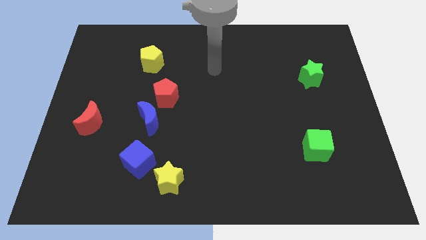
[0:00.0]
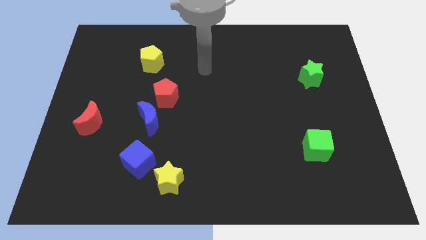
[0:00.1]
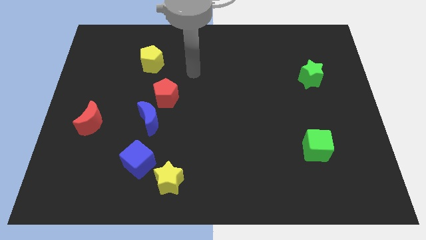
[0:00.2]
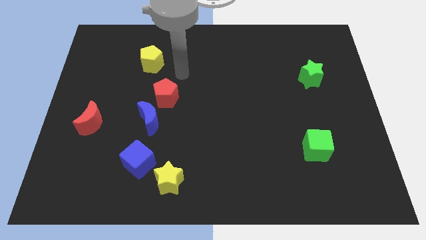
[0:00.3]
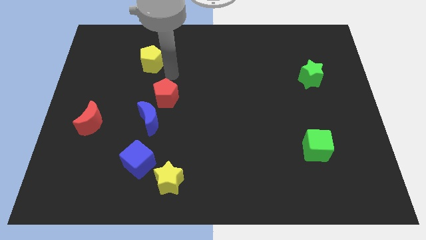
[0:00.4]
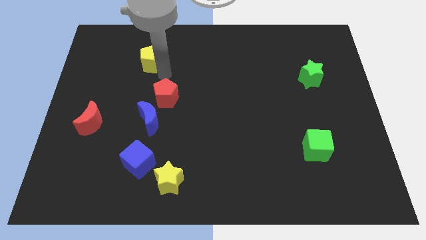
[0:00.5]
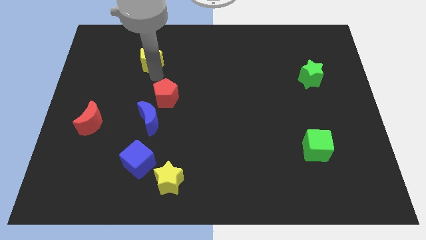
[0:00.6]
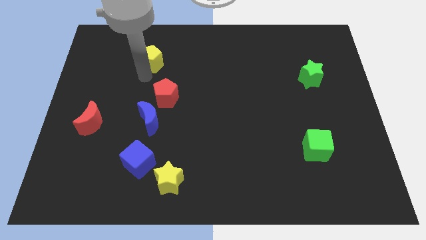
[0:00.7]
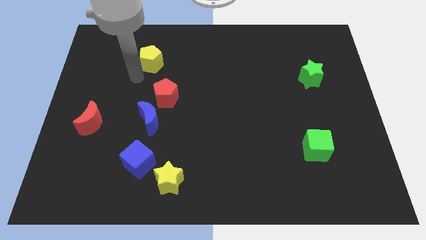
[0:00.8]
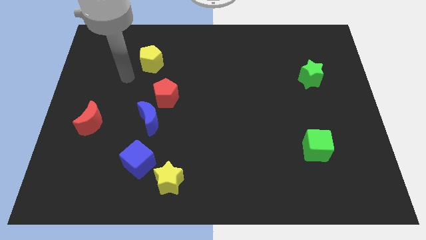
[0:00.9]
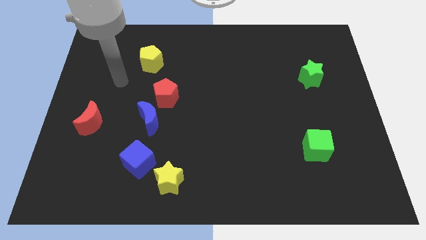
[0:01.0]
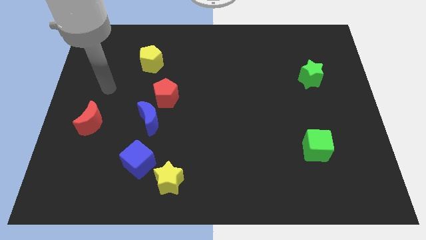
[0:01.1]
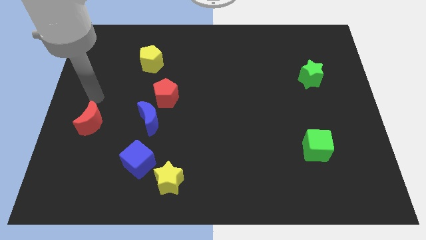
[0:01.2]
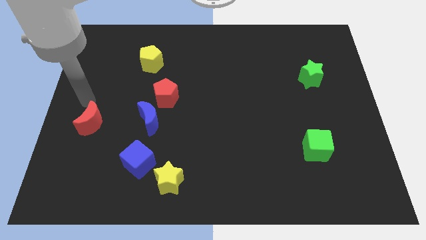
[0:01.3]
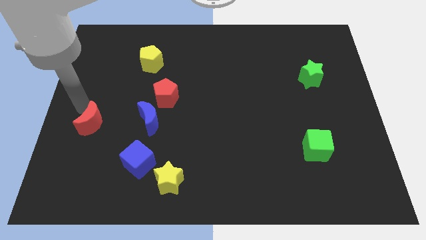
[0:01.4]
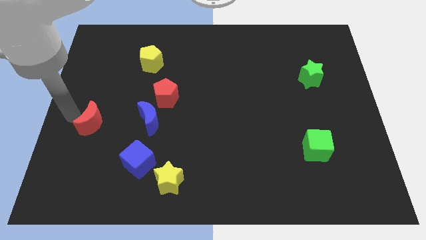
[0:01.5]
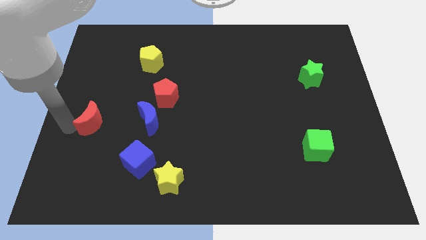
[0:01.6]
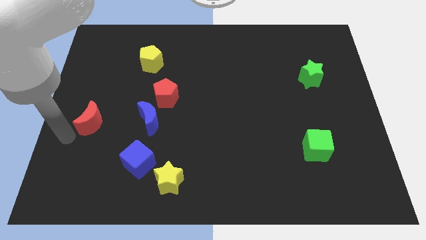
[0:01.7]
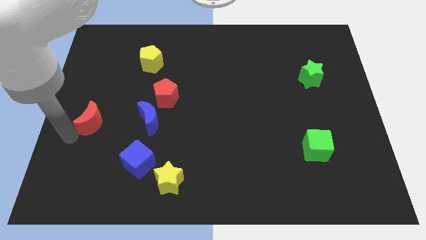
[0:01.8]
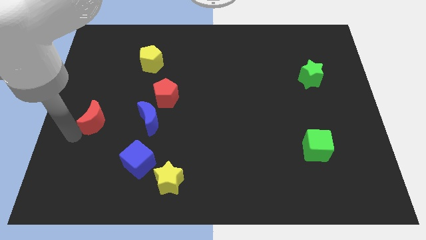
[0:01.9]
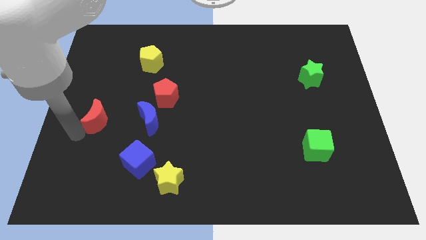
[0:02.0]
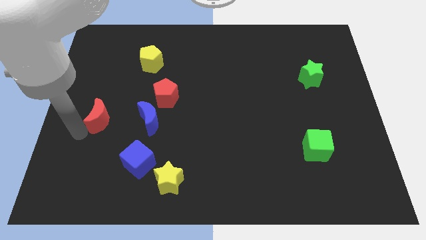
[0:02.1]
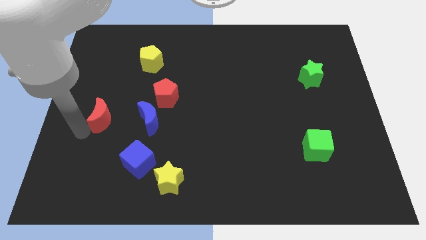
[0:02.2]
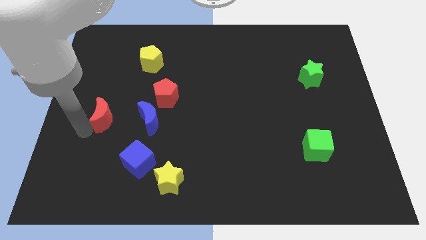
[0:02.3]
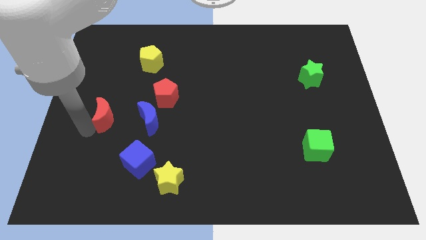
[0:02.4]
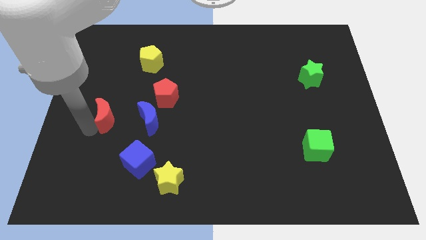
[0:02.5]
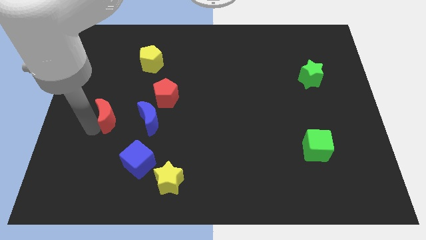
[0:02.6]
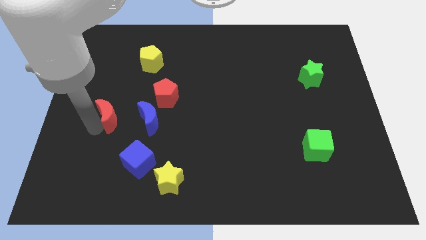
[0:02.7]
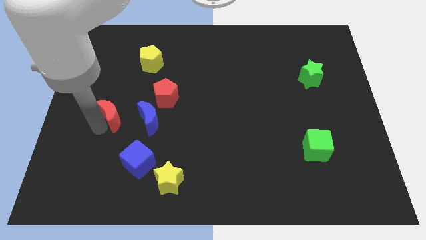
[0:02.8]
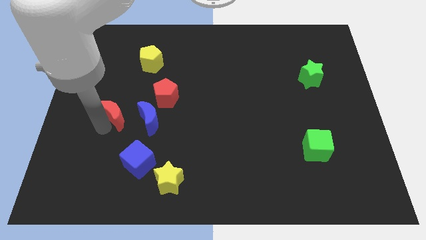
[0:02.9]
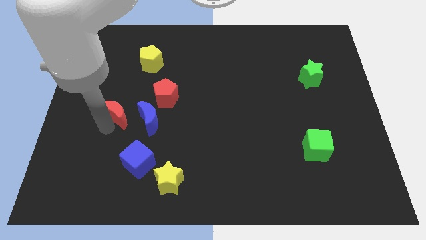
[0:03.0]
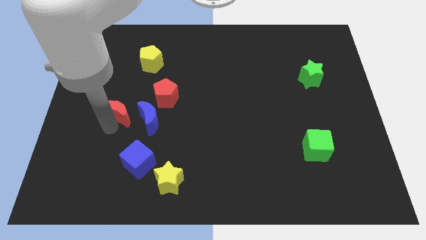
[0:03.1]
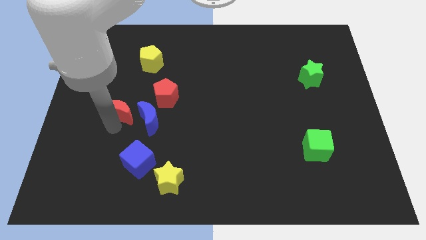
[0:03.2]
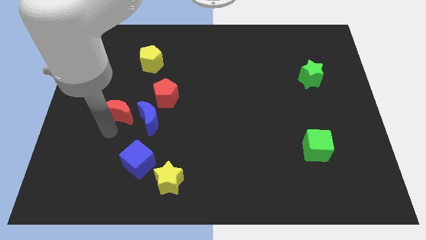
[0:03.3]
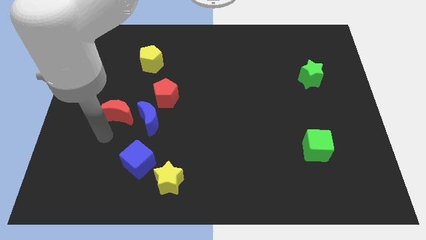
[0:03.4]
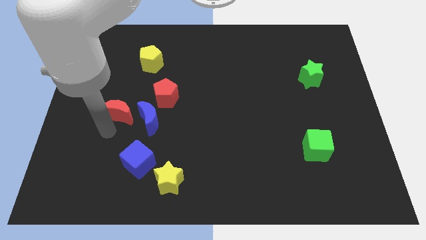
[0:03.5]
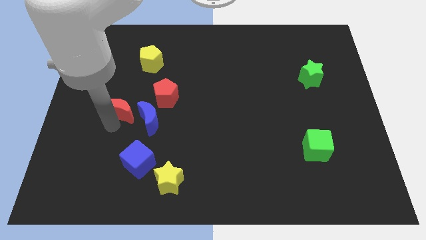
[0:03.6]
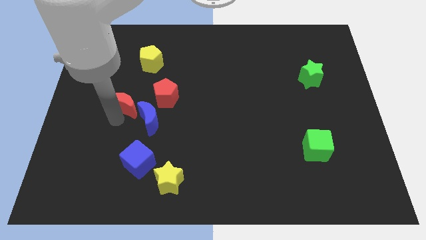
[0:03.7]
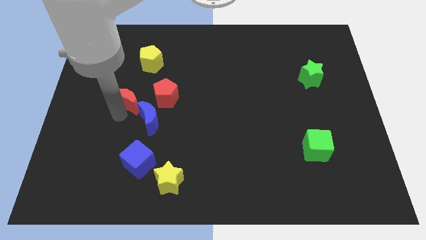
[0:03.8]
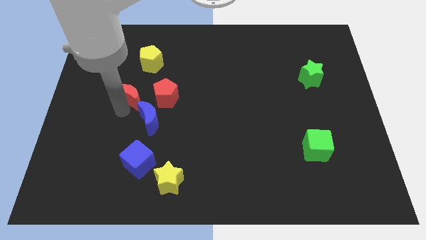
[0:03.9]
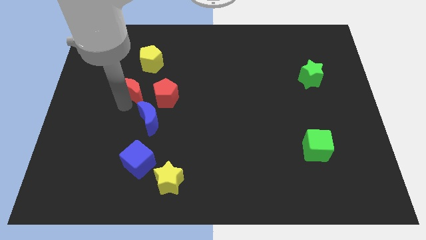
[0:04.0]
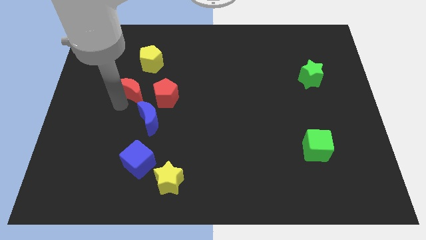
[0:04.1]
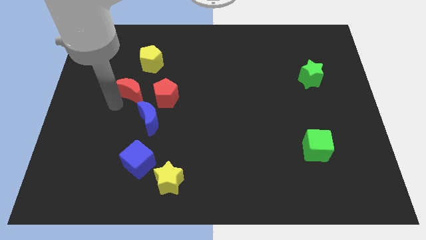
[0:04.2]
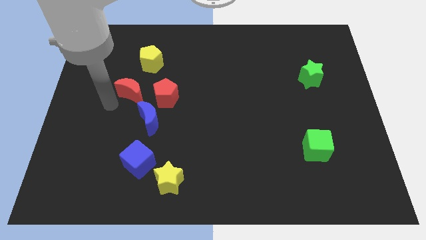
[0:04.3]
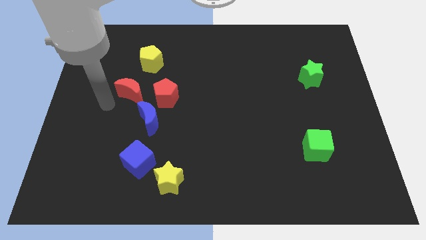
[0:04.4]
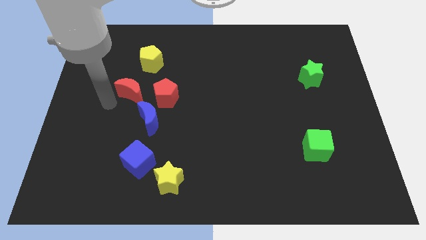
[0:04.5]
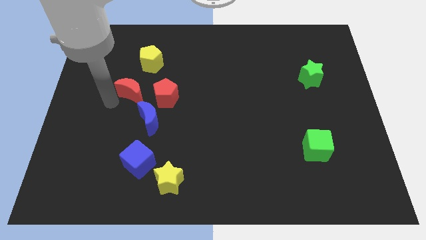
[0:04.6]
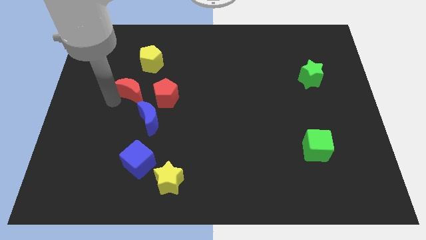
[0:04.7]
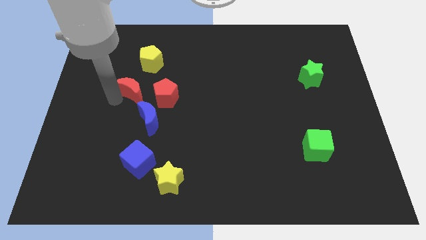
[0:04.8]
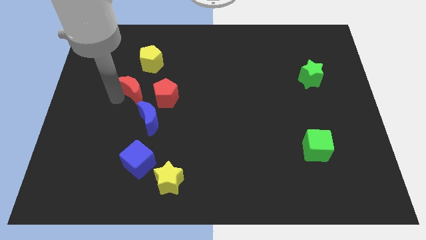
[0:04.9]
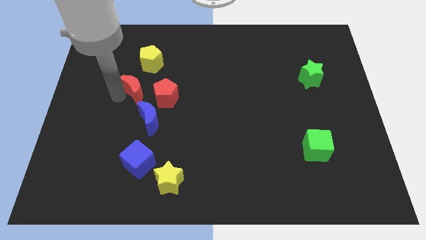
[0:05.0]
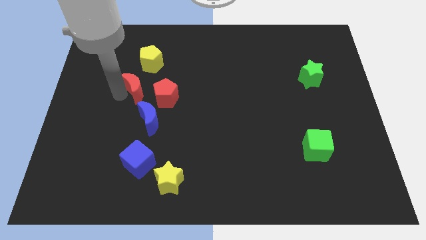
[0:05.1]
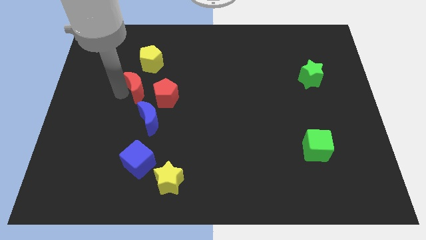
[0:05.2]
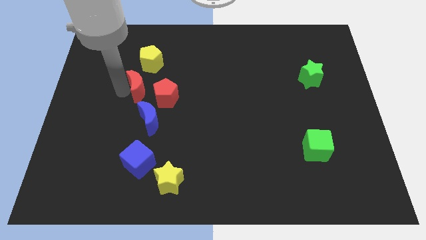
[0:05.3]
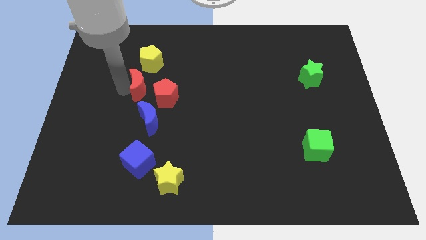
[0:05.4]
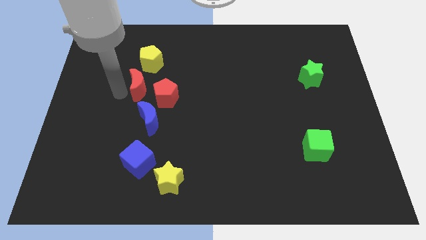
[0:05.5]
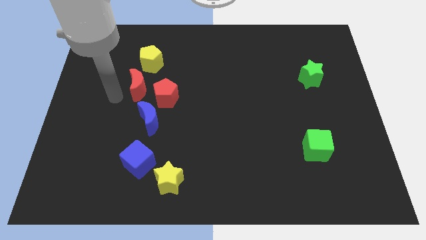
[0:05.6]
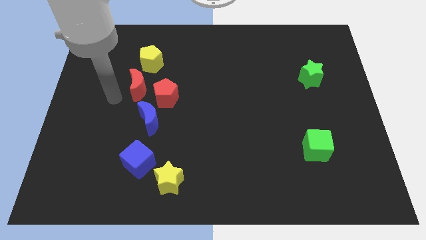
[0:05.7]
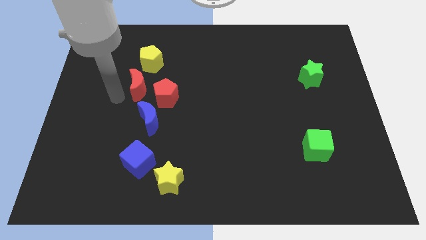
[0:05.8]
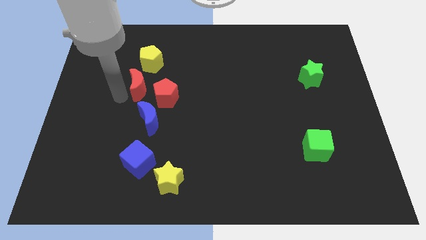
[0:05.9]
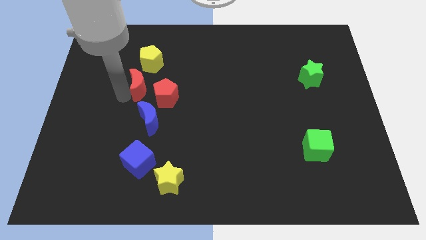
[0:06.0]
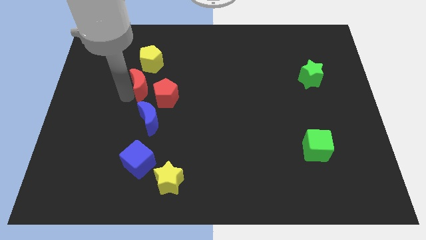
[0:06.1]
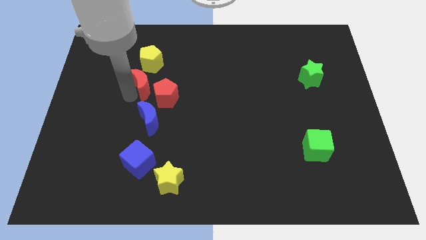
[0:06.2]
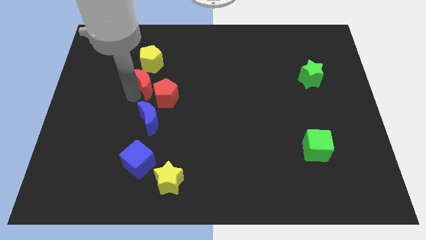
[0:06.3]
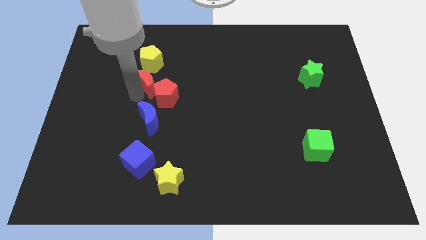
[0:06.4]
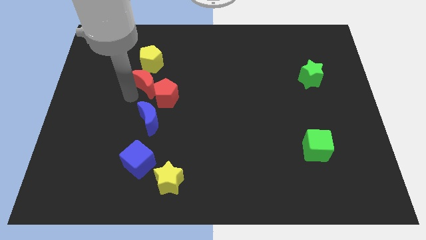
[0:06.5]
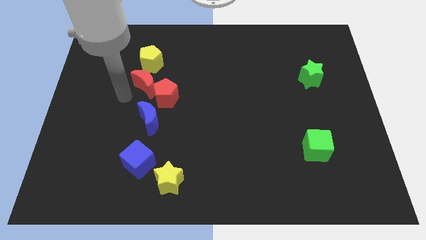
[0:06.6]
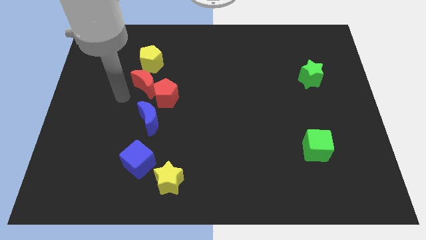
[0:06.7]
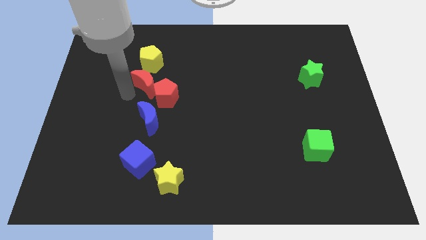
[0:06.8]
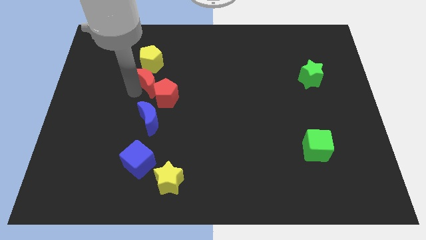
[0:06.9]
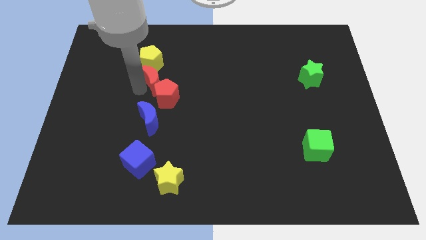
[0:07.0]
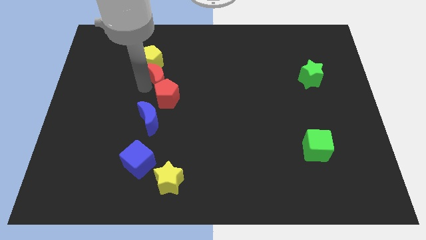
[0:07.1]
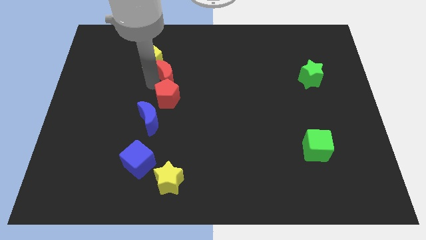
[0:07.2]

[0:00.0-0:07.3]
slide the red moon right of the yellow pentagon

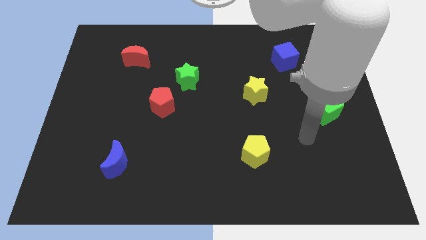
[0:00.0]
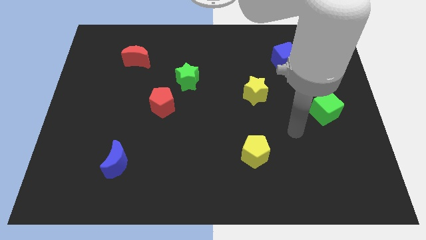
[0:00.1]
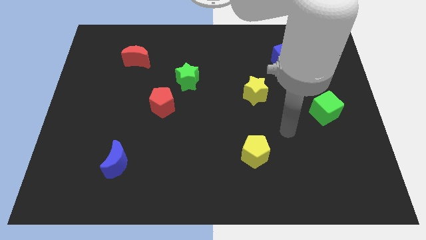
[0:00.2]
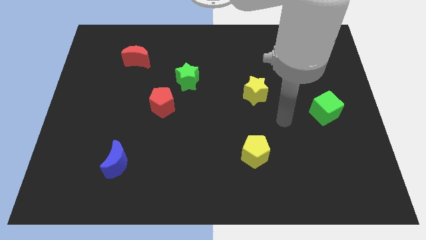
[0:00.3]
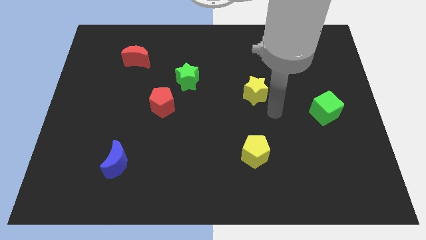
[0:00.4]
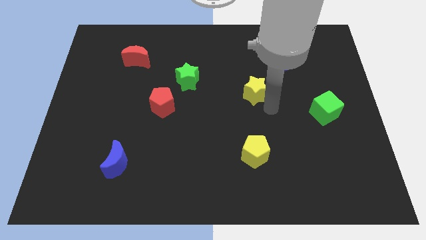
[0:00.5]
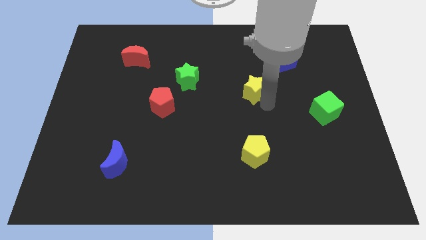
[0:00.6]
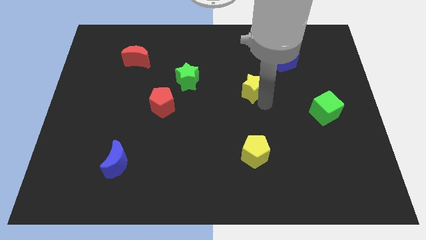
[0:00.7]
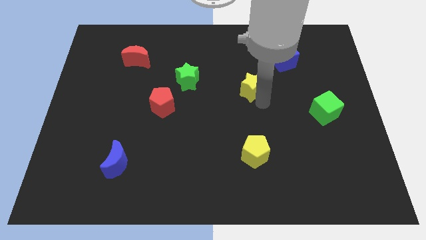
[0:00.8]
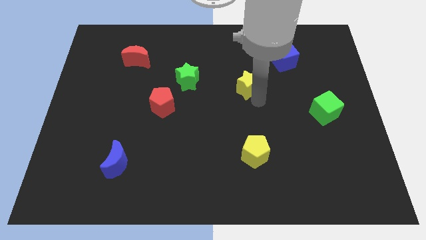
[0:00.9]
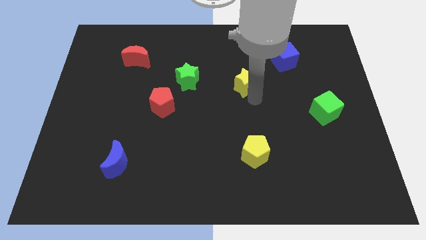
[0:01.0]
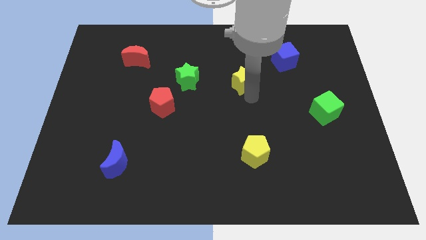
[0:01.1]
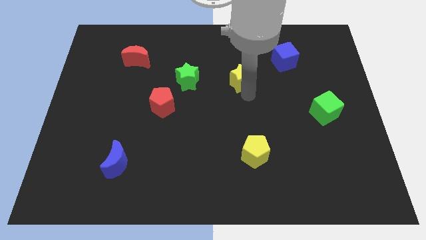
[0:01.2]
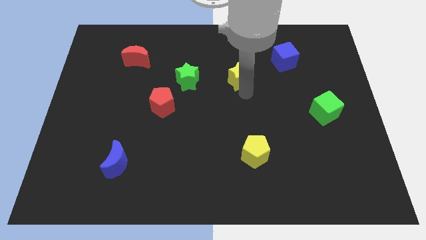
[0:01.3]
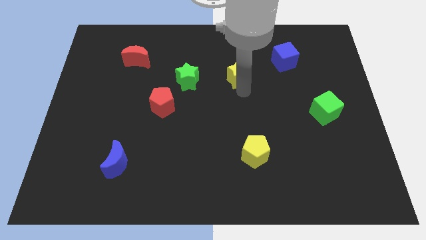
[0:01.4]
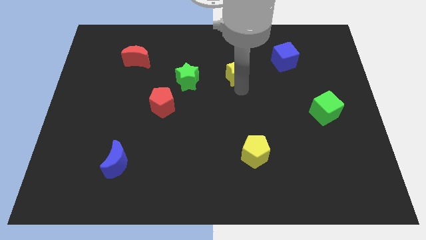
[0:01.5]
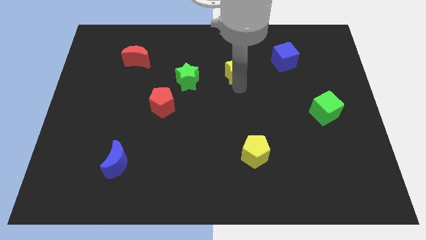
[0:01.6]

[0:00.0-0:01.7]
move the yellow star just left of the blue cube
